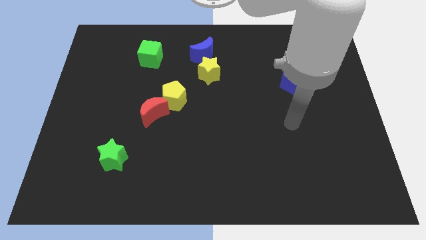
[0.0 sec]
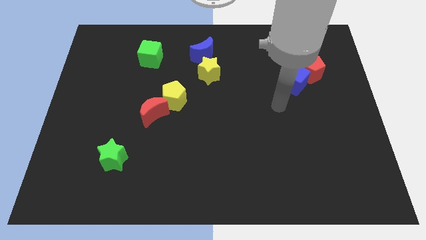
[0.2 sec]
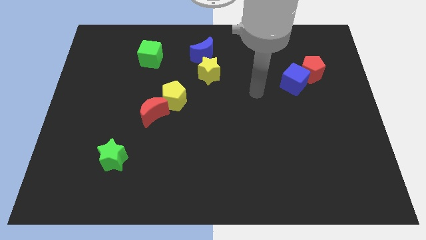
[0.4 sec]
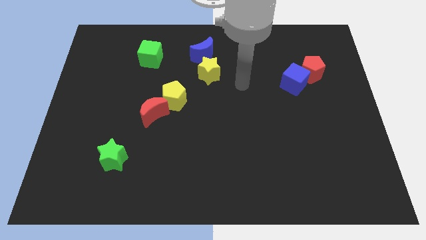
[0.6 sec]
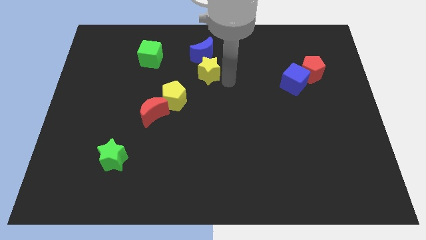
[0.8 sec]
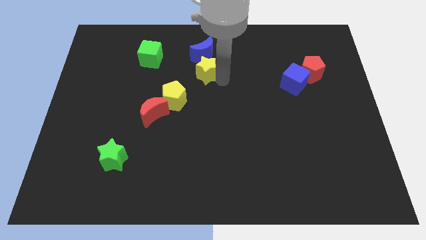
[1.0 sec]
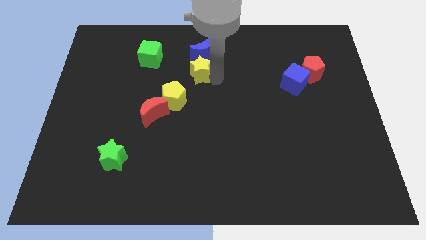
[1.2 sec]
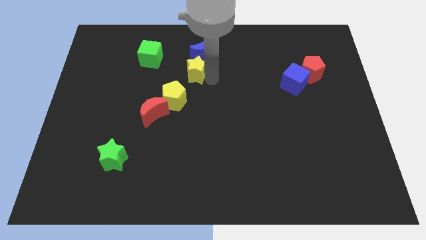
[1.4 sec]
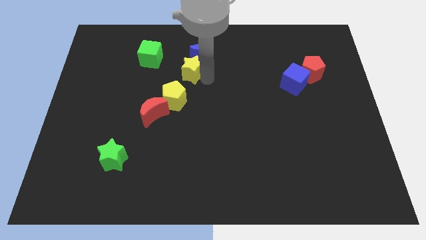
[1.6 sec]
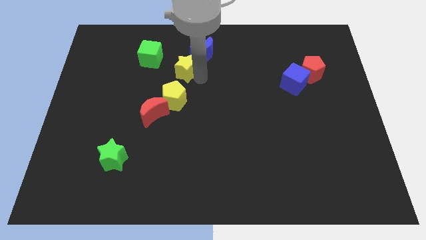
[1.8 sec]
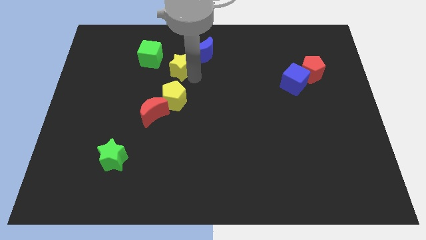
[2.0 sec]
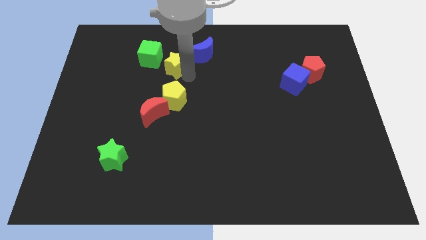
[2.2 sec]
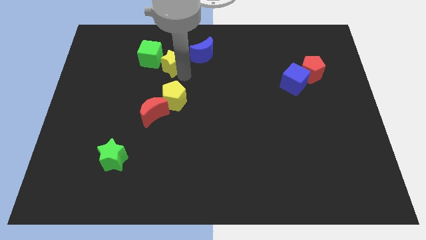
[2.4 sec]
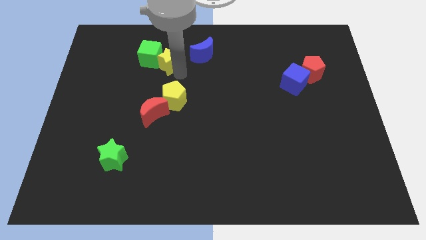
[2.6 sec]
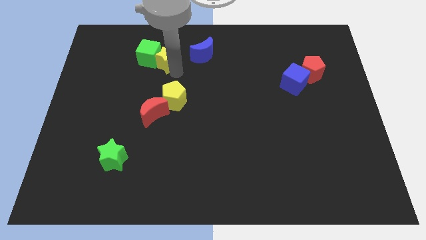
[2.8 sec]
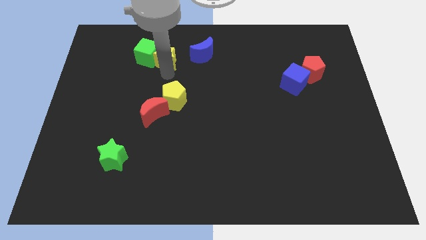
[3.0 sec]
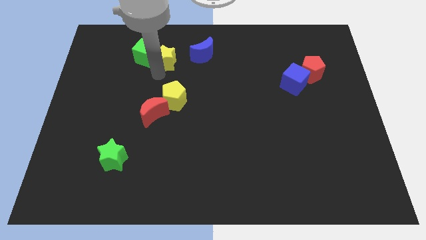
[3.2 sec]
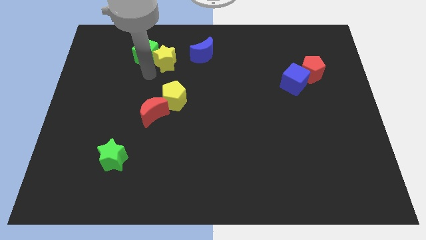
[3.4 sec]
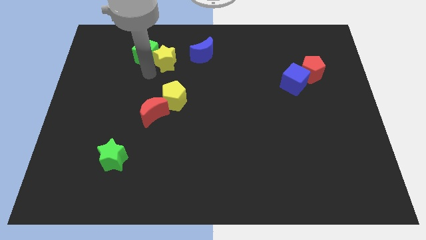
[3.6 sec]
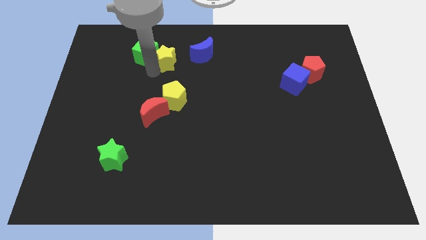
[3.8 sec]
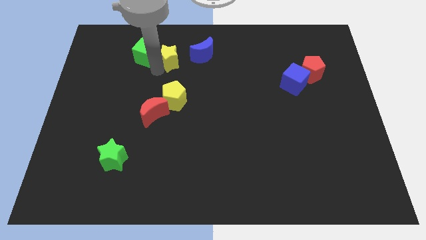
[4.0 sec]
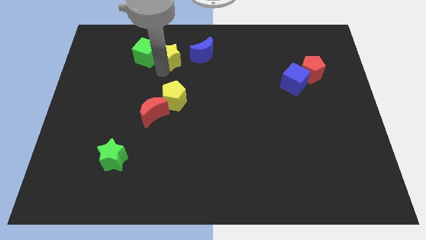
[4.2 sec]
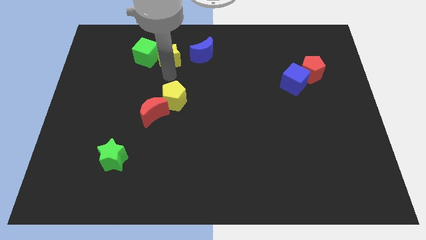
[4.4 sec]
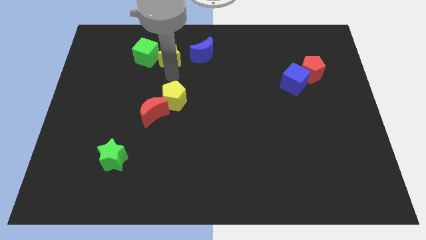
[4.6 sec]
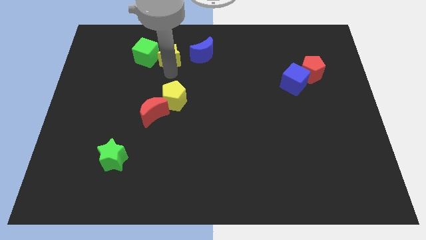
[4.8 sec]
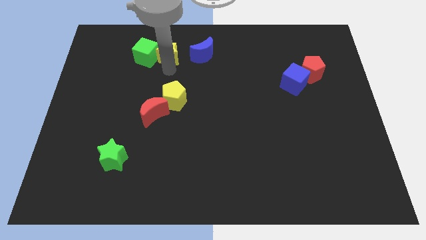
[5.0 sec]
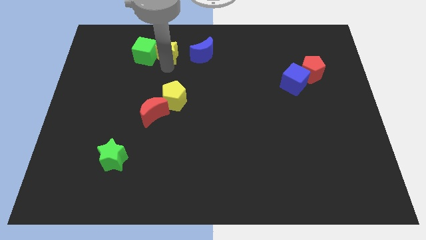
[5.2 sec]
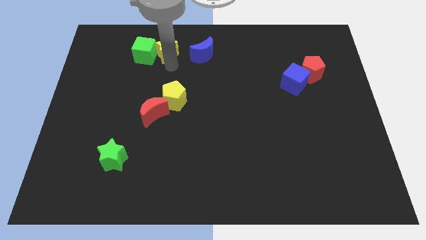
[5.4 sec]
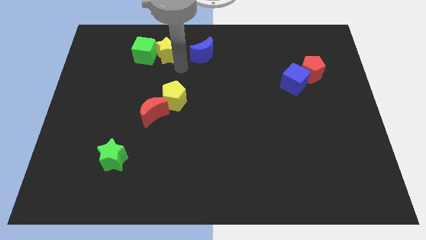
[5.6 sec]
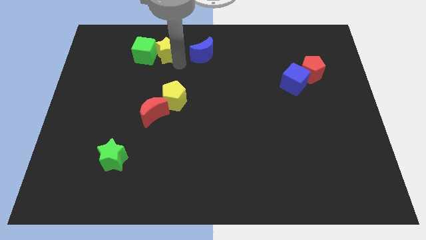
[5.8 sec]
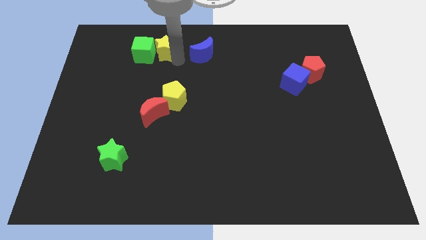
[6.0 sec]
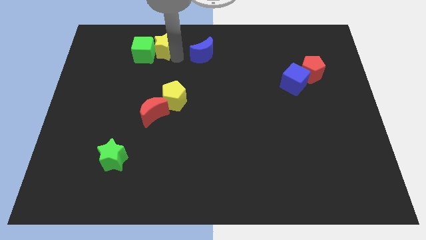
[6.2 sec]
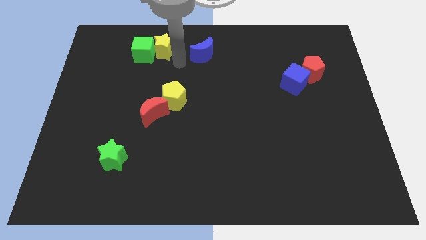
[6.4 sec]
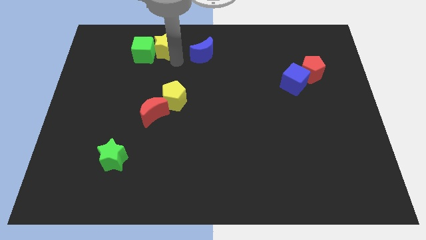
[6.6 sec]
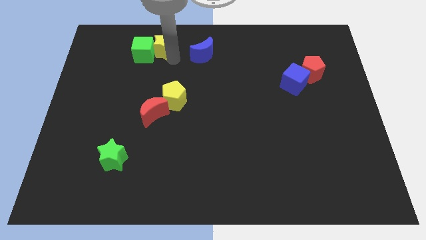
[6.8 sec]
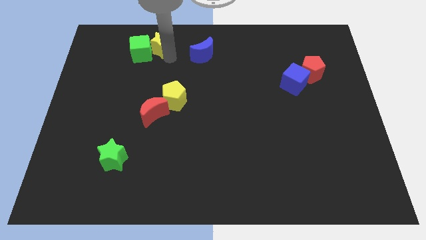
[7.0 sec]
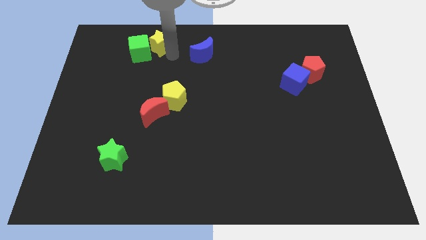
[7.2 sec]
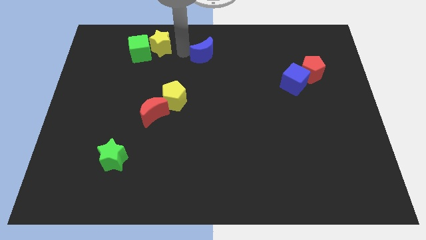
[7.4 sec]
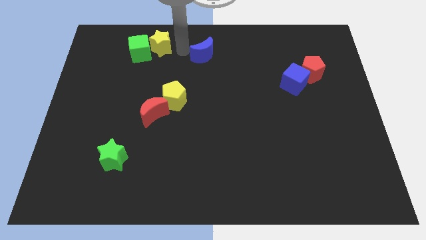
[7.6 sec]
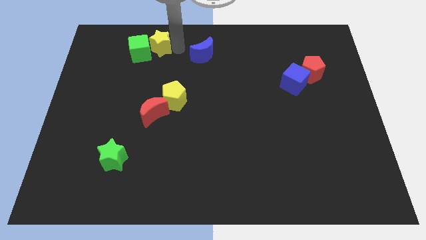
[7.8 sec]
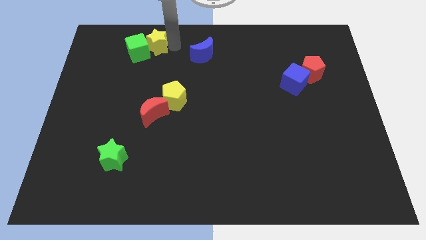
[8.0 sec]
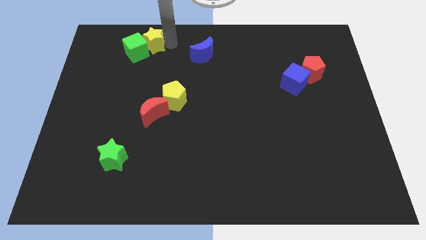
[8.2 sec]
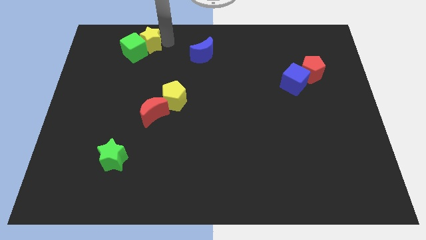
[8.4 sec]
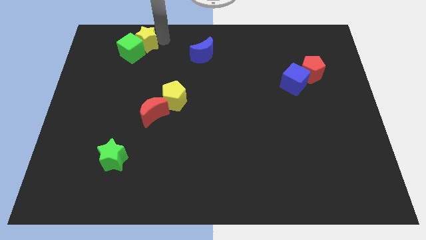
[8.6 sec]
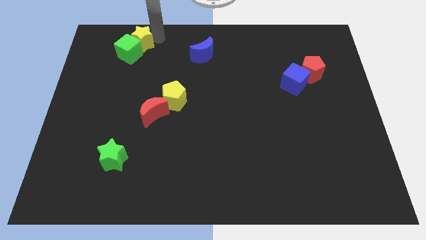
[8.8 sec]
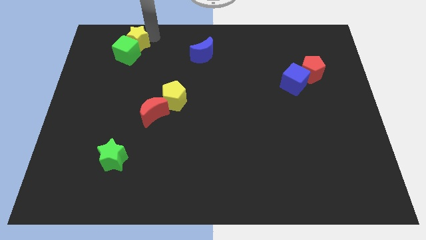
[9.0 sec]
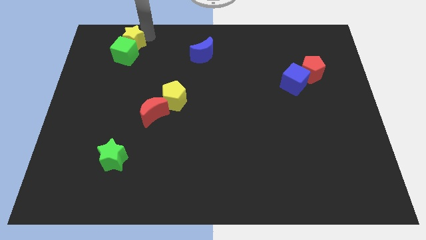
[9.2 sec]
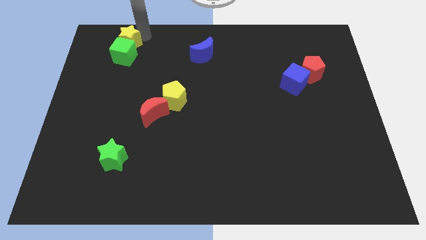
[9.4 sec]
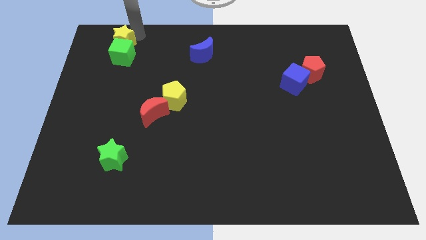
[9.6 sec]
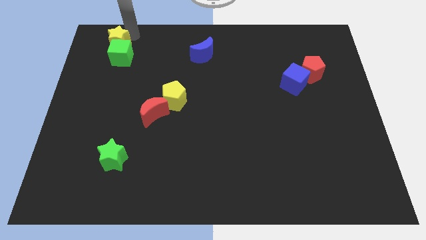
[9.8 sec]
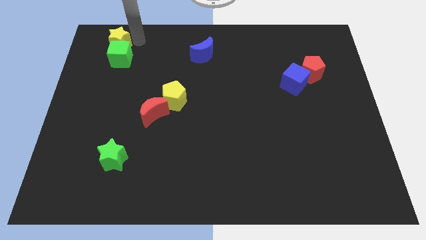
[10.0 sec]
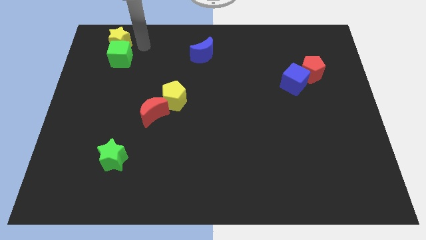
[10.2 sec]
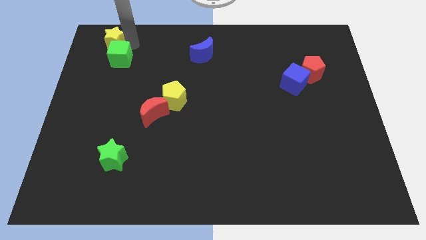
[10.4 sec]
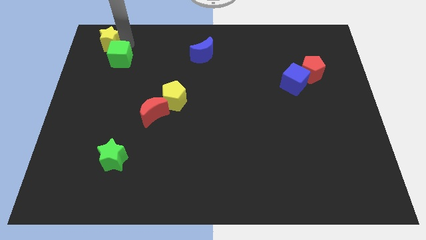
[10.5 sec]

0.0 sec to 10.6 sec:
push the yellow star to the top left of the board
